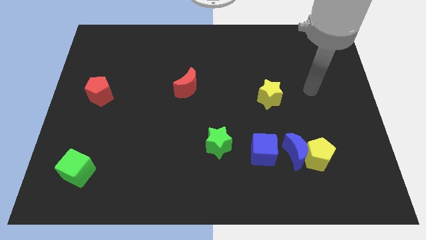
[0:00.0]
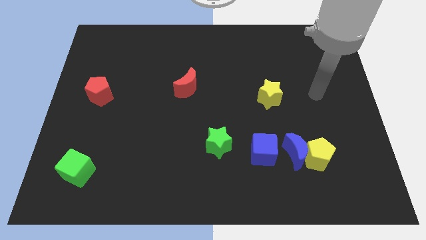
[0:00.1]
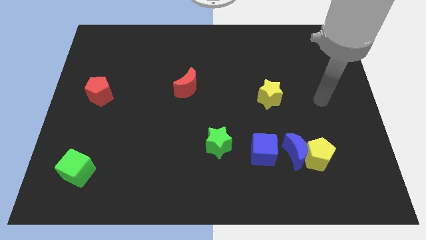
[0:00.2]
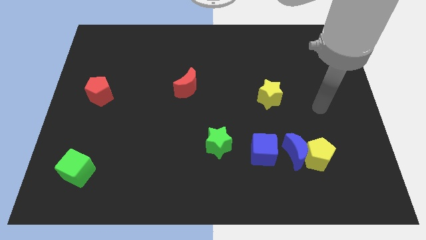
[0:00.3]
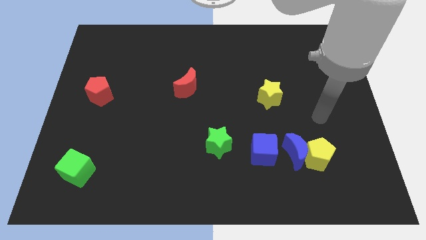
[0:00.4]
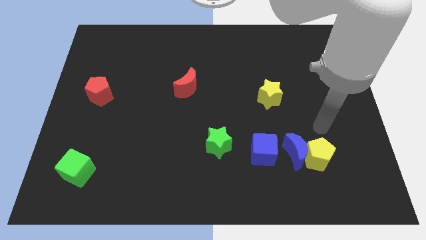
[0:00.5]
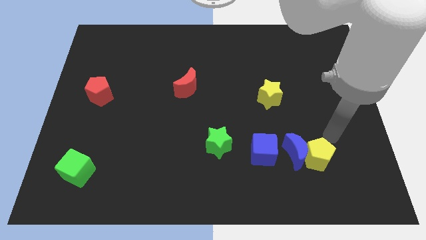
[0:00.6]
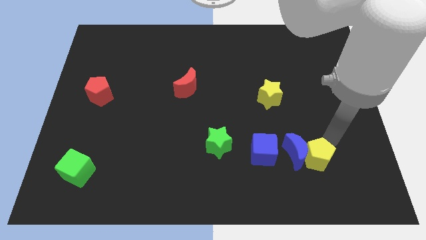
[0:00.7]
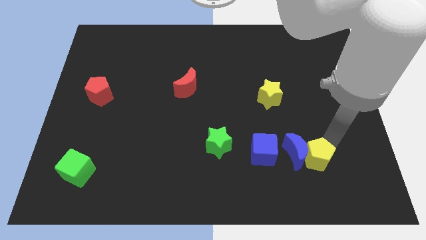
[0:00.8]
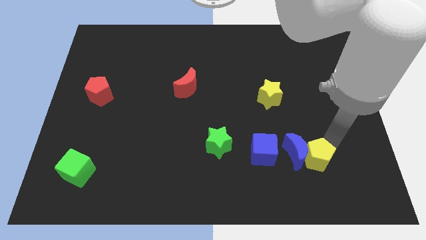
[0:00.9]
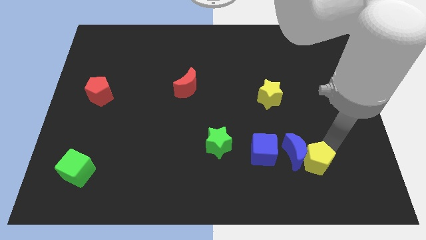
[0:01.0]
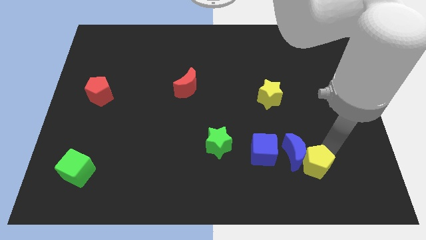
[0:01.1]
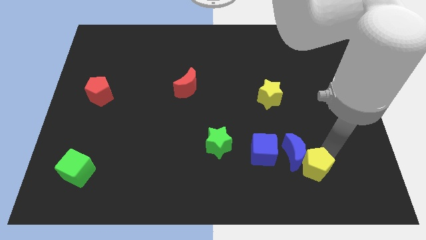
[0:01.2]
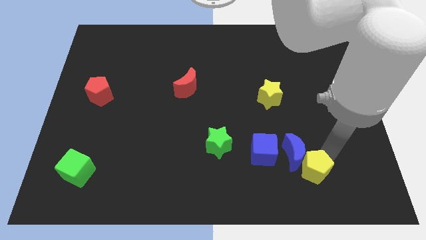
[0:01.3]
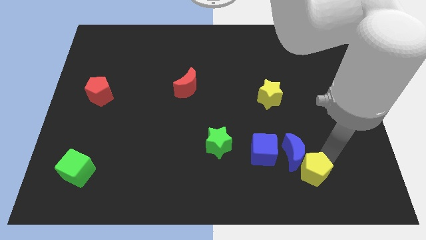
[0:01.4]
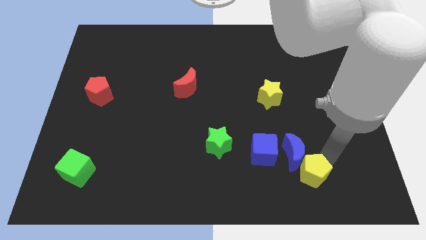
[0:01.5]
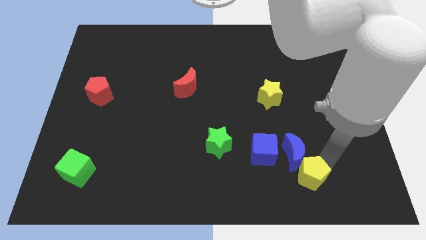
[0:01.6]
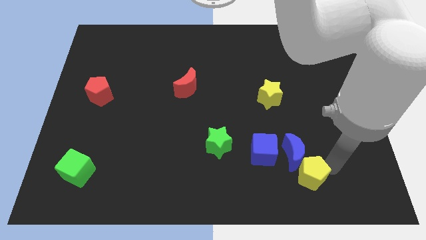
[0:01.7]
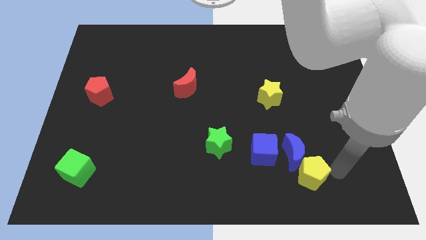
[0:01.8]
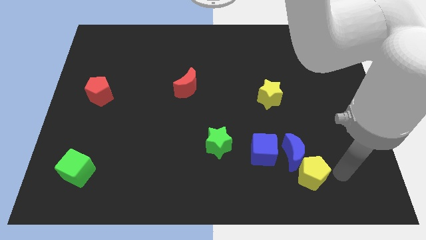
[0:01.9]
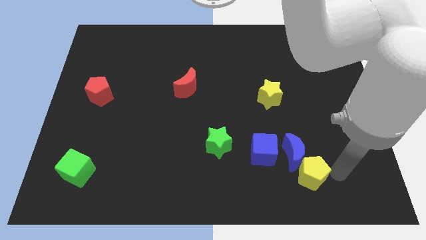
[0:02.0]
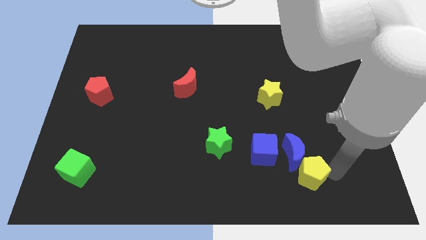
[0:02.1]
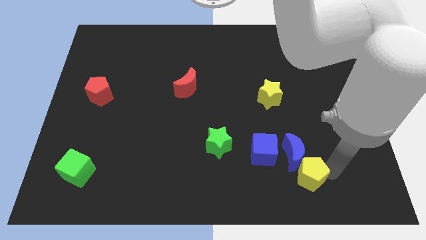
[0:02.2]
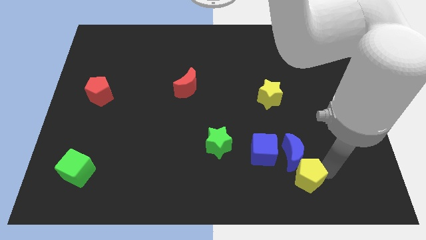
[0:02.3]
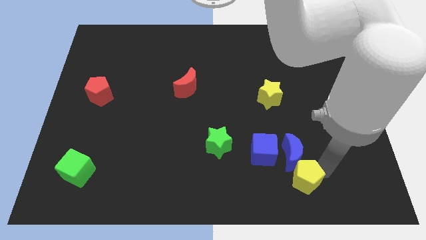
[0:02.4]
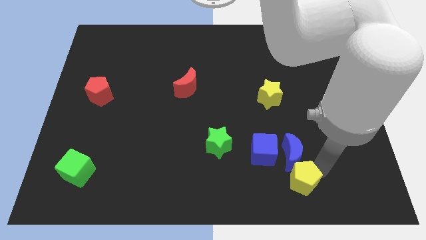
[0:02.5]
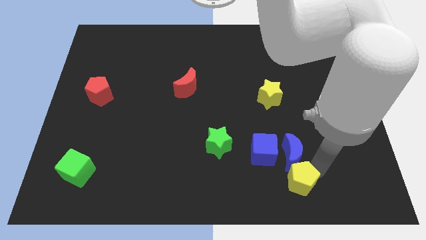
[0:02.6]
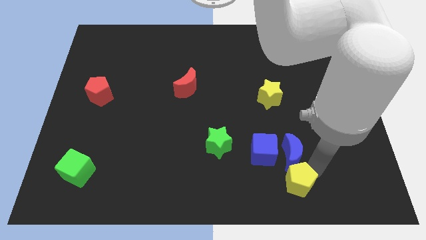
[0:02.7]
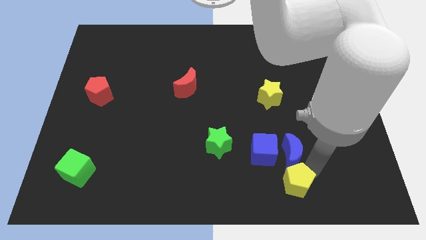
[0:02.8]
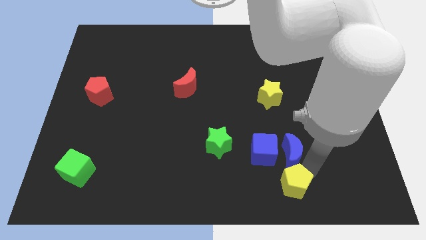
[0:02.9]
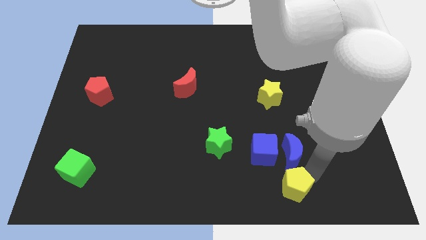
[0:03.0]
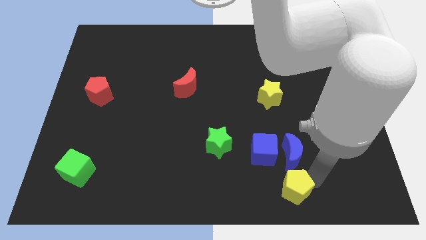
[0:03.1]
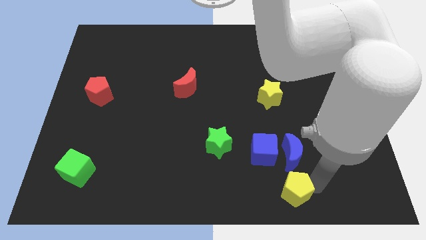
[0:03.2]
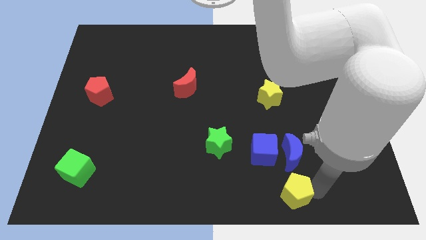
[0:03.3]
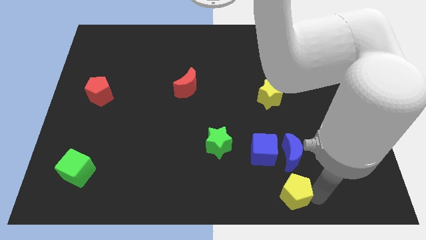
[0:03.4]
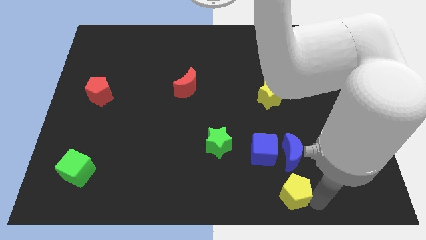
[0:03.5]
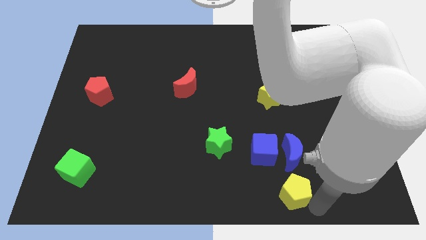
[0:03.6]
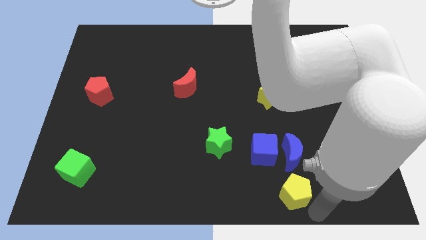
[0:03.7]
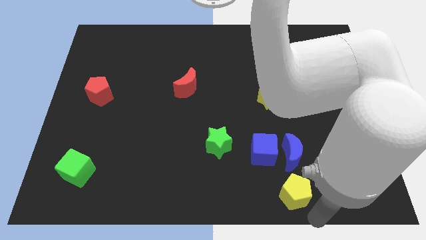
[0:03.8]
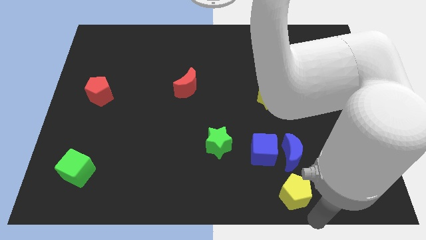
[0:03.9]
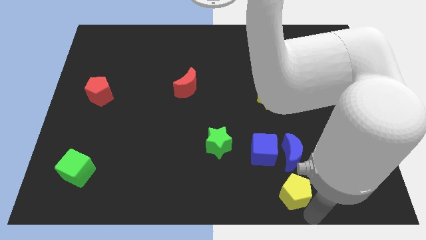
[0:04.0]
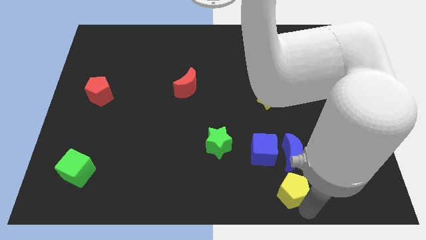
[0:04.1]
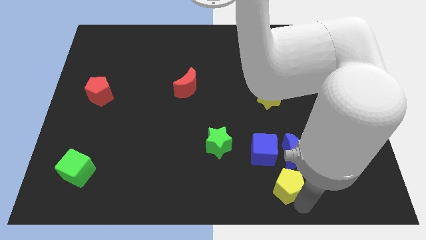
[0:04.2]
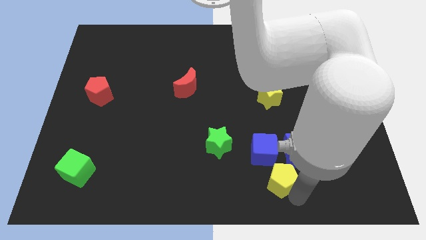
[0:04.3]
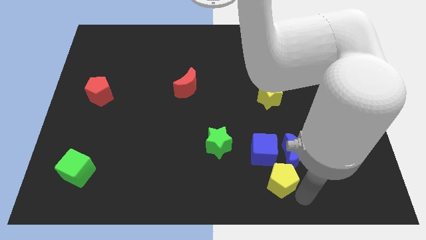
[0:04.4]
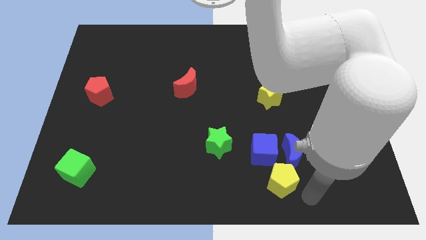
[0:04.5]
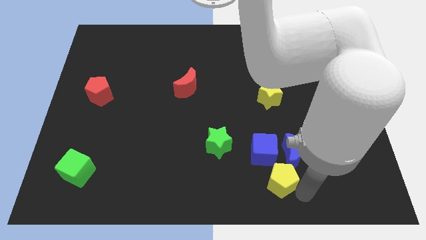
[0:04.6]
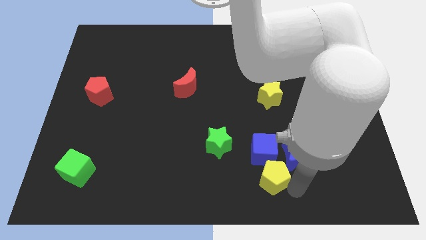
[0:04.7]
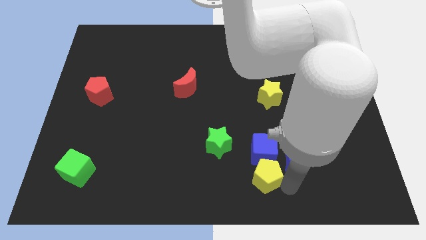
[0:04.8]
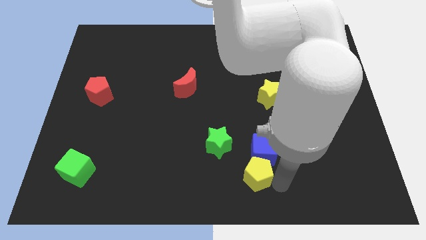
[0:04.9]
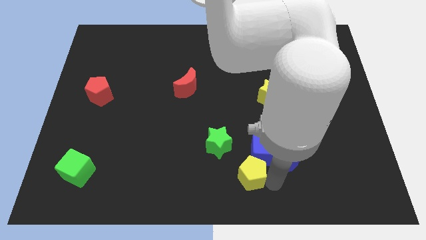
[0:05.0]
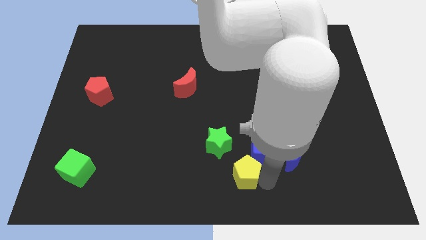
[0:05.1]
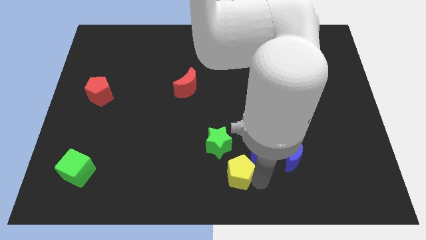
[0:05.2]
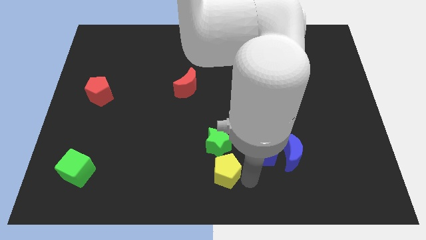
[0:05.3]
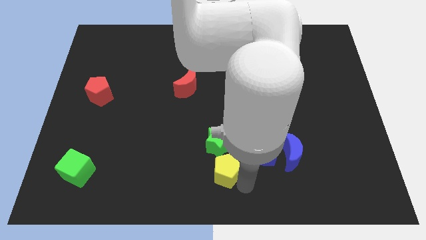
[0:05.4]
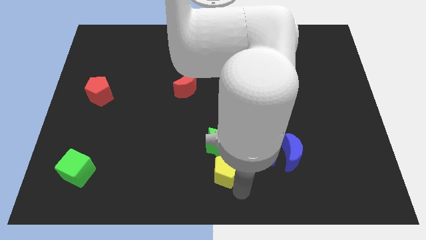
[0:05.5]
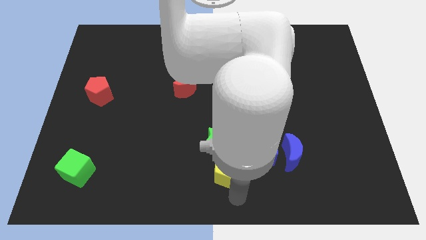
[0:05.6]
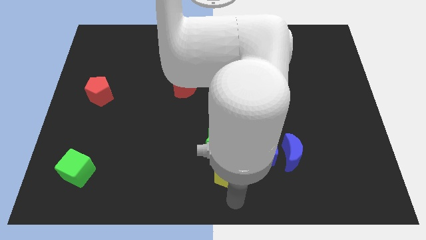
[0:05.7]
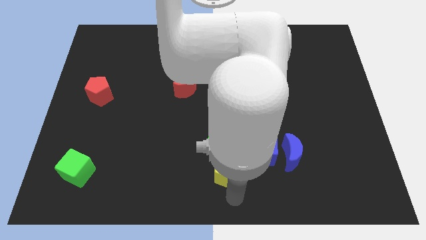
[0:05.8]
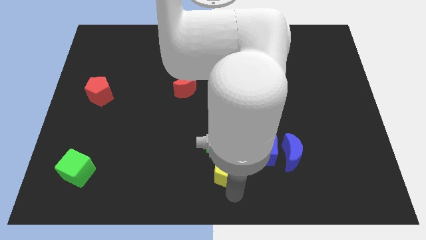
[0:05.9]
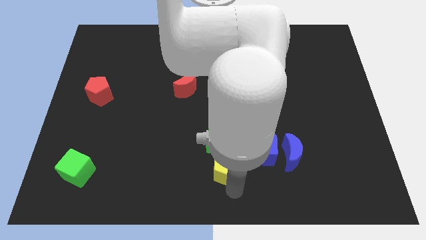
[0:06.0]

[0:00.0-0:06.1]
move the yellow pentagon towards the green star

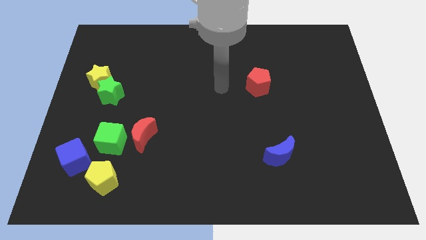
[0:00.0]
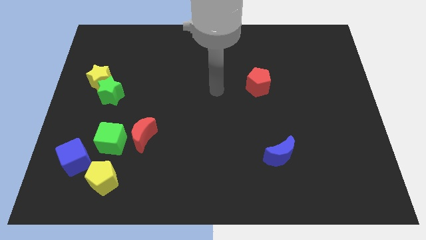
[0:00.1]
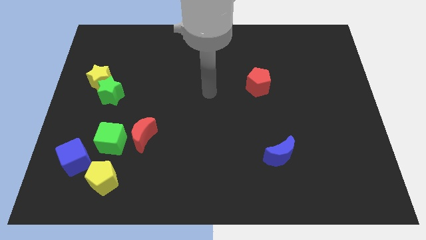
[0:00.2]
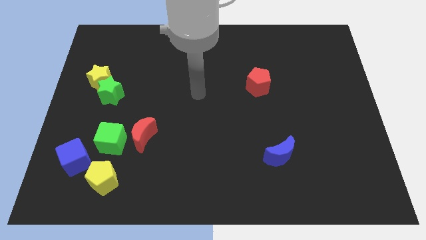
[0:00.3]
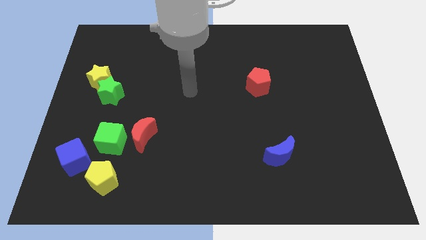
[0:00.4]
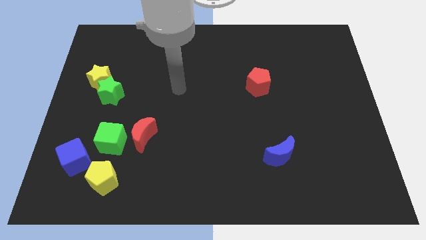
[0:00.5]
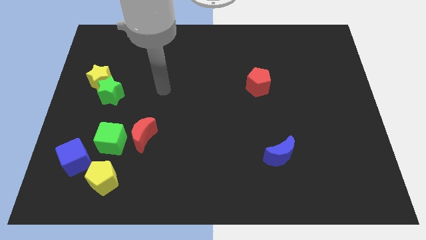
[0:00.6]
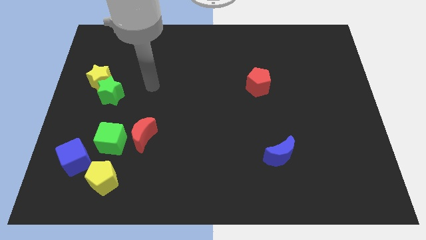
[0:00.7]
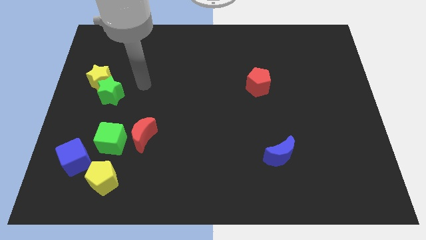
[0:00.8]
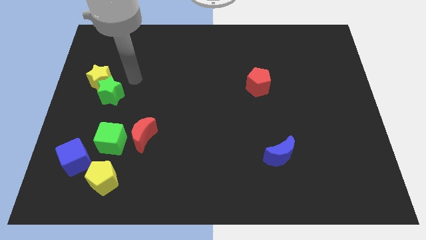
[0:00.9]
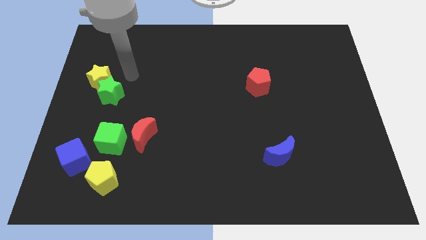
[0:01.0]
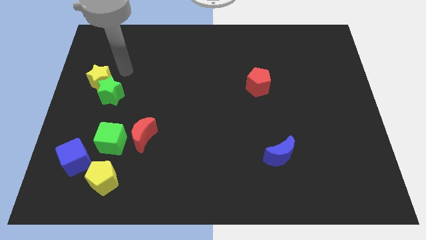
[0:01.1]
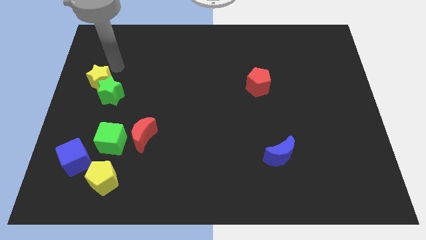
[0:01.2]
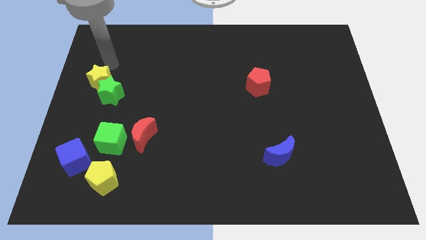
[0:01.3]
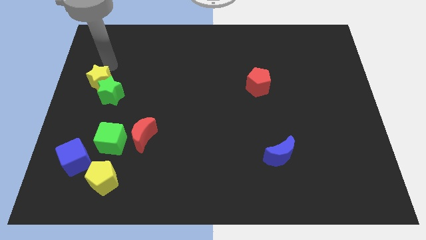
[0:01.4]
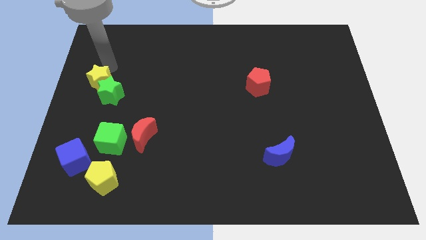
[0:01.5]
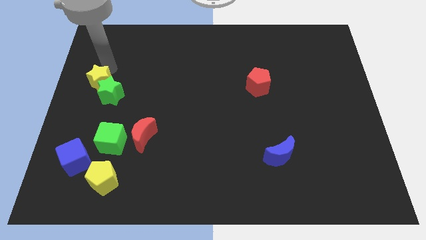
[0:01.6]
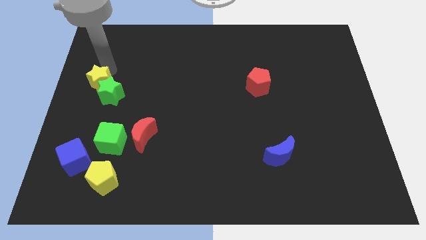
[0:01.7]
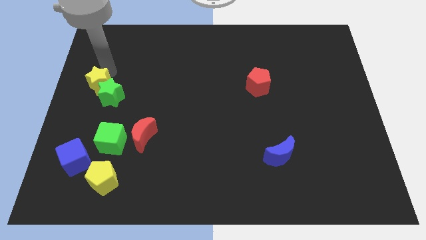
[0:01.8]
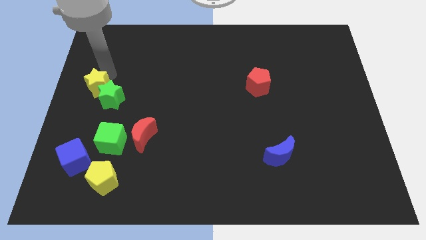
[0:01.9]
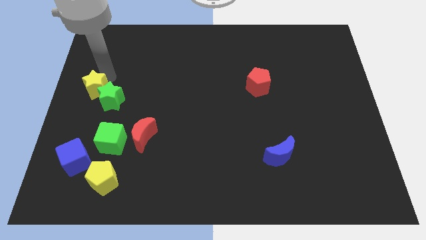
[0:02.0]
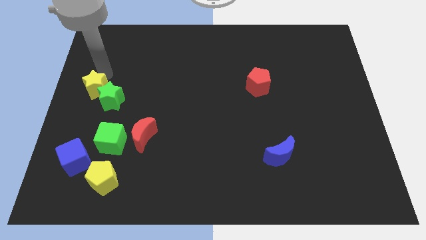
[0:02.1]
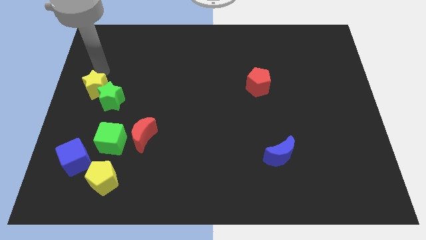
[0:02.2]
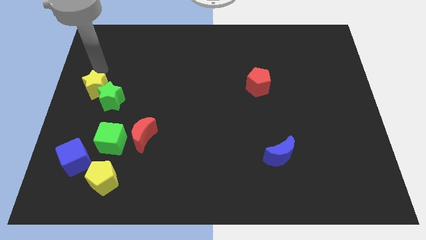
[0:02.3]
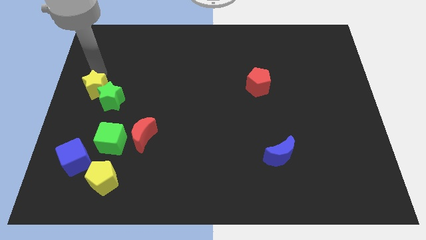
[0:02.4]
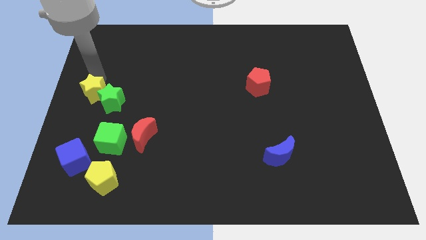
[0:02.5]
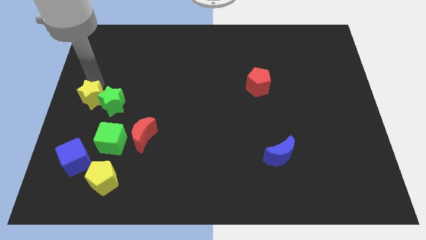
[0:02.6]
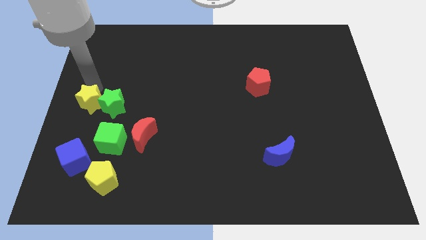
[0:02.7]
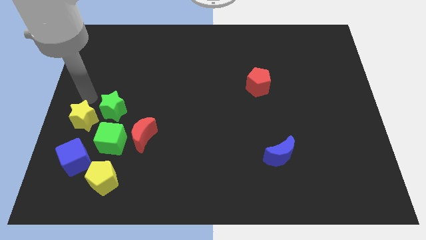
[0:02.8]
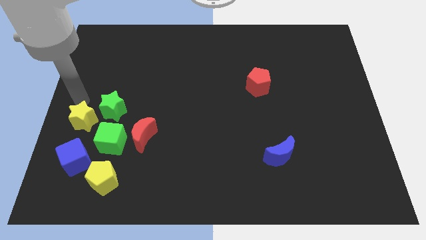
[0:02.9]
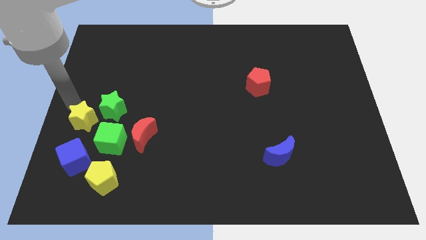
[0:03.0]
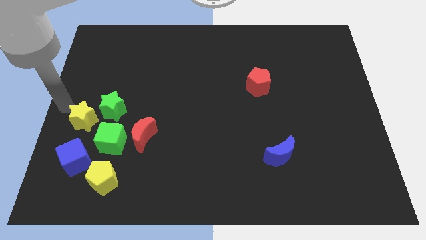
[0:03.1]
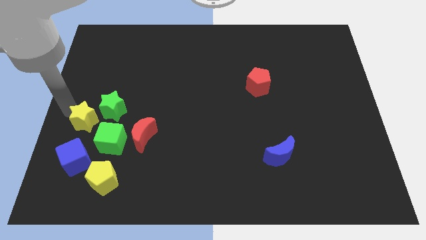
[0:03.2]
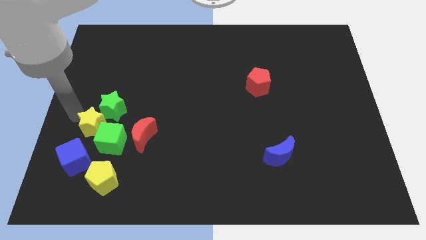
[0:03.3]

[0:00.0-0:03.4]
push the yellow star close to the green cube
